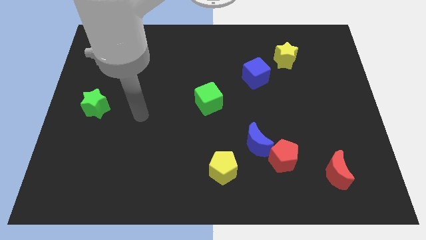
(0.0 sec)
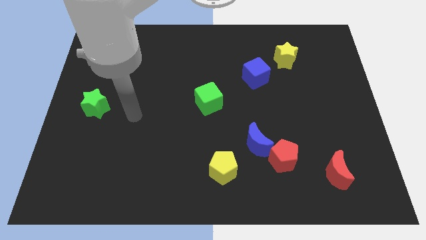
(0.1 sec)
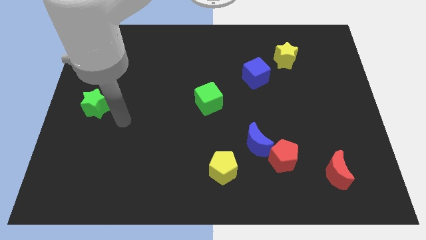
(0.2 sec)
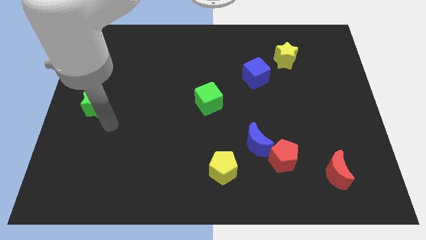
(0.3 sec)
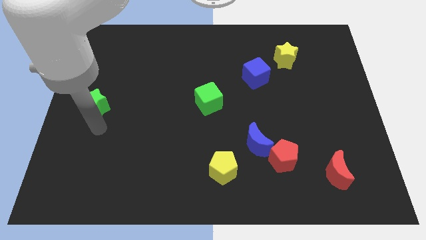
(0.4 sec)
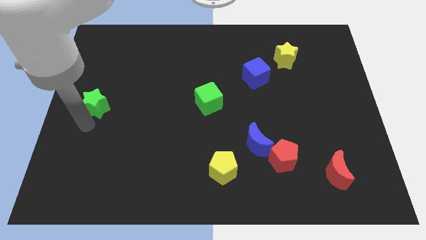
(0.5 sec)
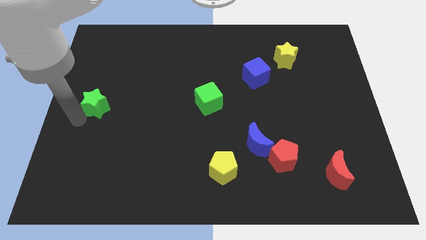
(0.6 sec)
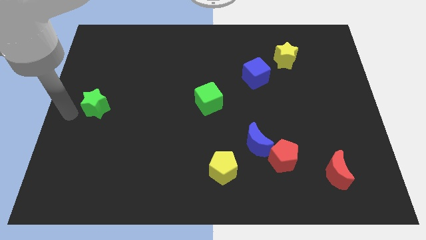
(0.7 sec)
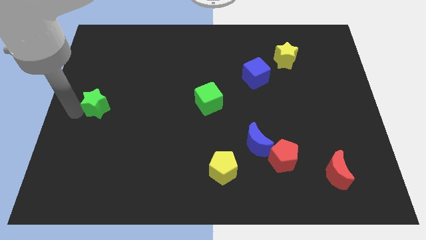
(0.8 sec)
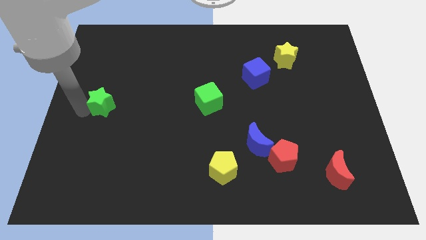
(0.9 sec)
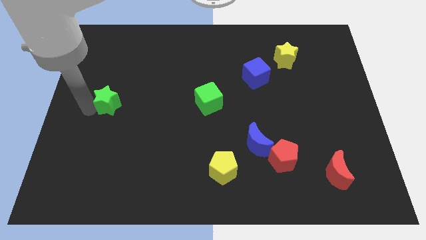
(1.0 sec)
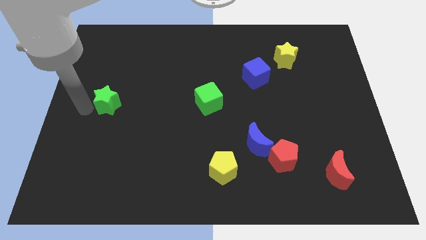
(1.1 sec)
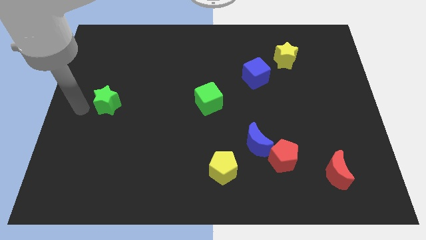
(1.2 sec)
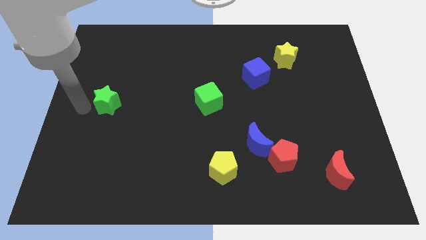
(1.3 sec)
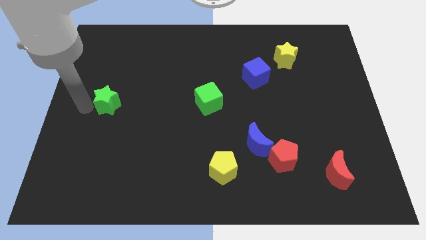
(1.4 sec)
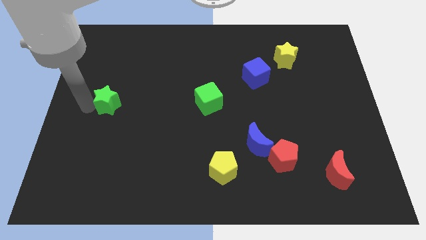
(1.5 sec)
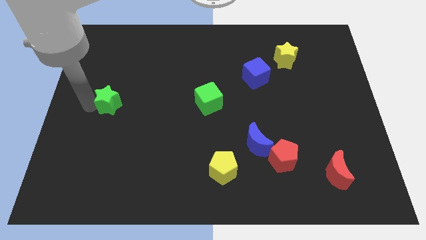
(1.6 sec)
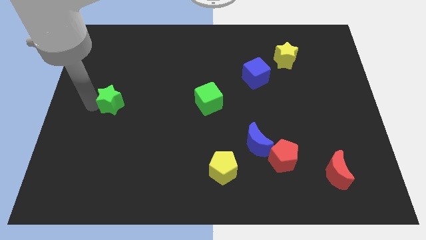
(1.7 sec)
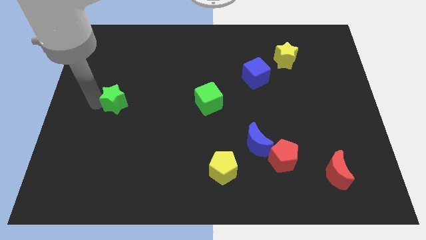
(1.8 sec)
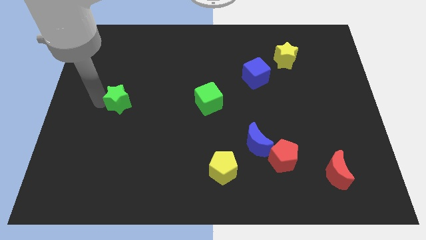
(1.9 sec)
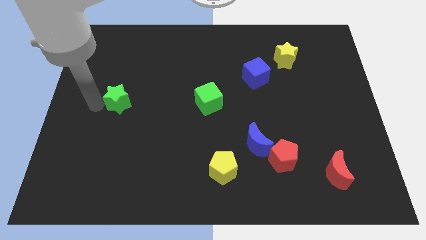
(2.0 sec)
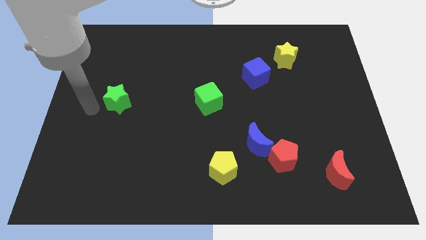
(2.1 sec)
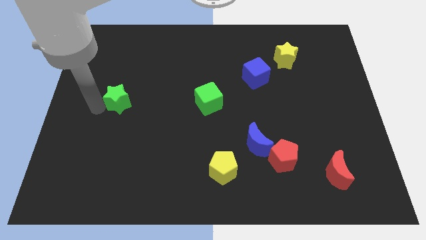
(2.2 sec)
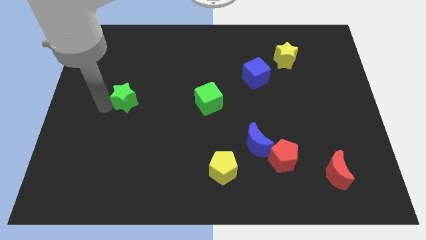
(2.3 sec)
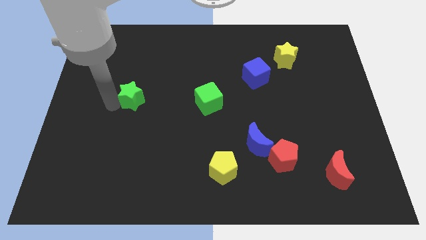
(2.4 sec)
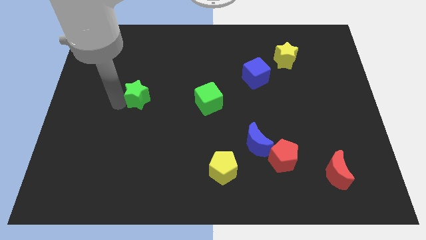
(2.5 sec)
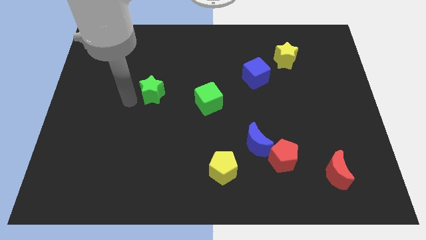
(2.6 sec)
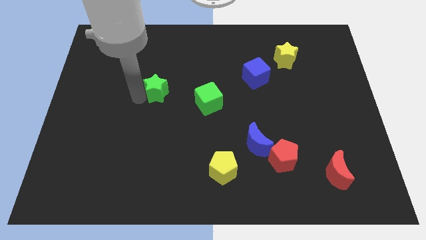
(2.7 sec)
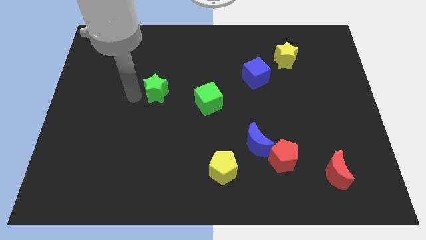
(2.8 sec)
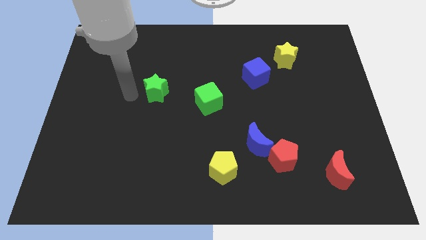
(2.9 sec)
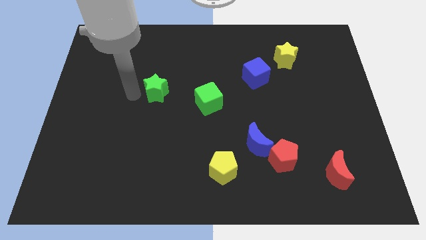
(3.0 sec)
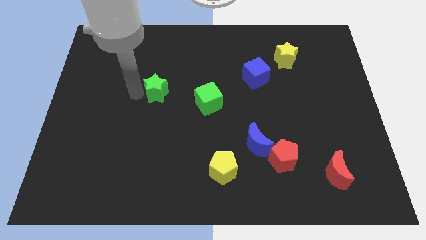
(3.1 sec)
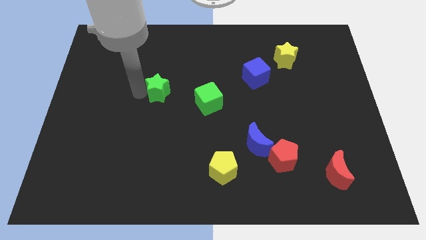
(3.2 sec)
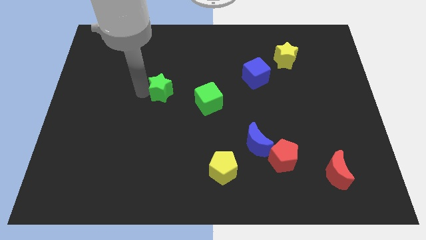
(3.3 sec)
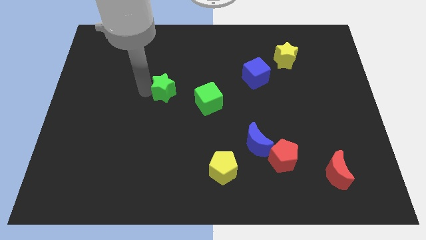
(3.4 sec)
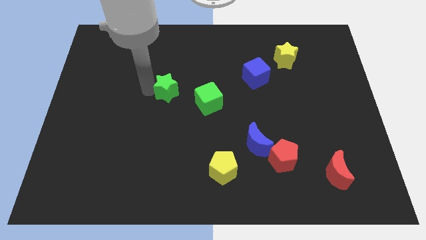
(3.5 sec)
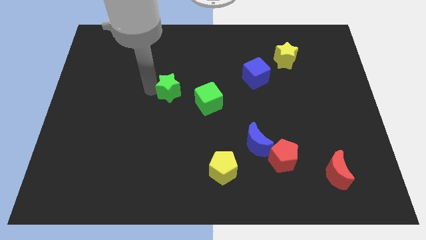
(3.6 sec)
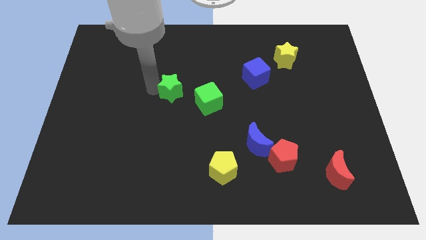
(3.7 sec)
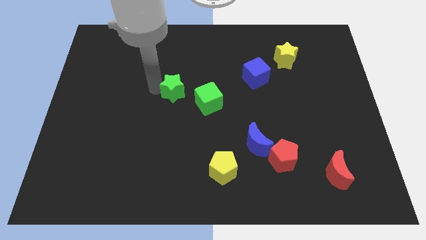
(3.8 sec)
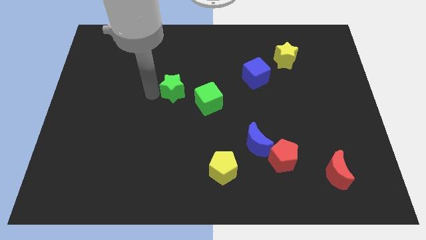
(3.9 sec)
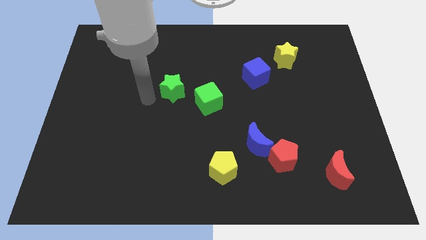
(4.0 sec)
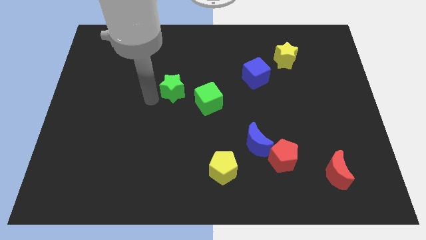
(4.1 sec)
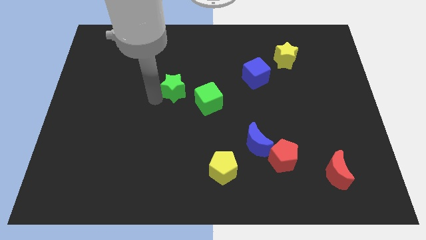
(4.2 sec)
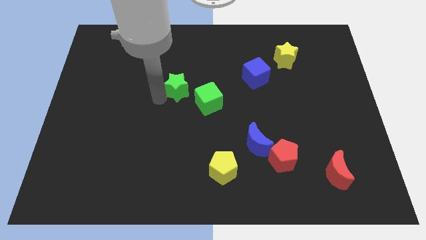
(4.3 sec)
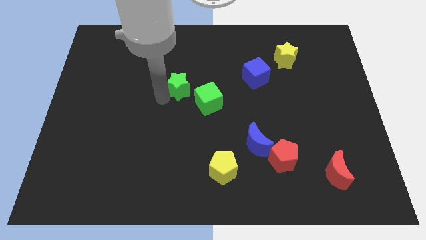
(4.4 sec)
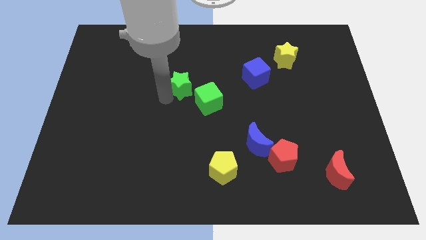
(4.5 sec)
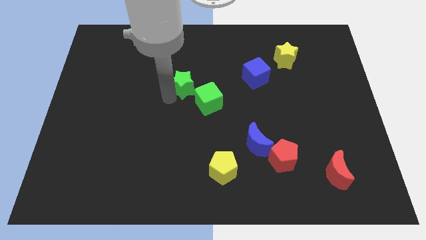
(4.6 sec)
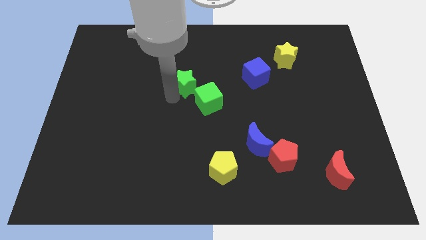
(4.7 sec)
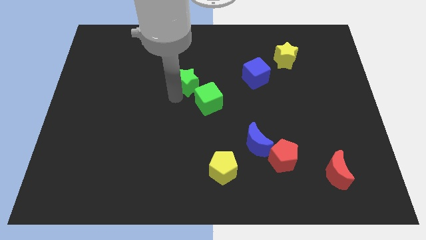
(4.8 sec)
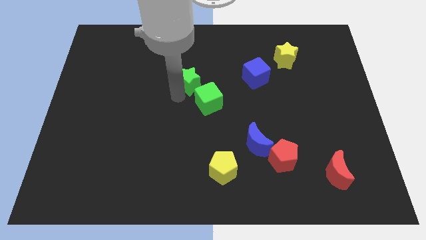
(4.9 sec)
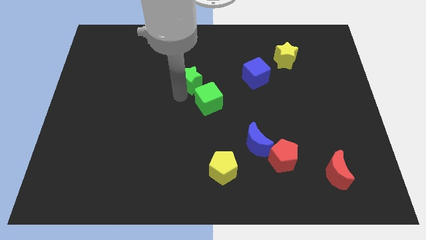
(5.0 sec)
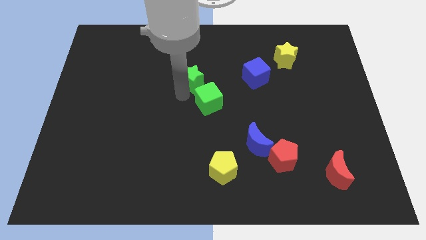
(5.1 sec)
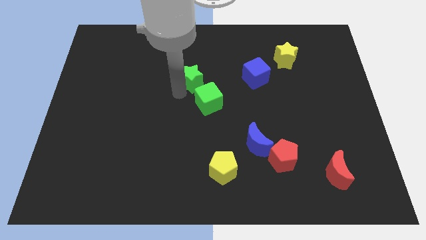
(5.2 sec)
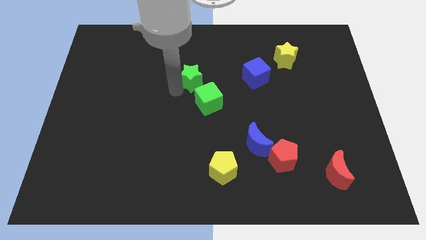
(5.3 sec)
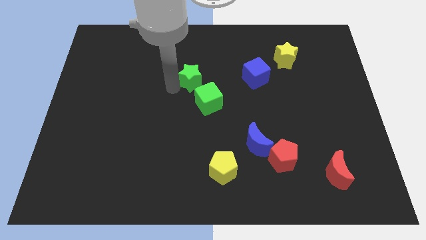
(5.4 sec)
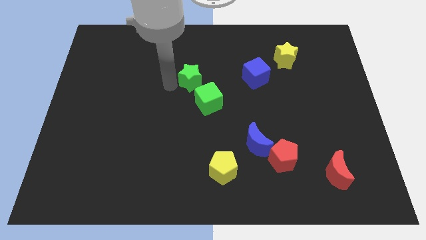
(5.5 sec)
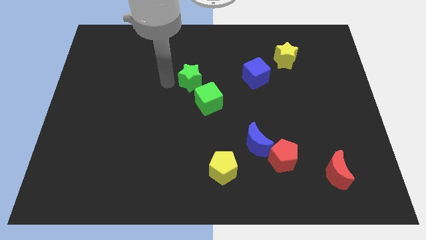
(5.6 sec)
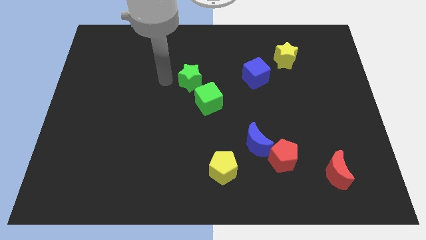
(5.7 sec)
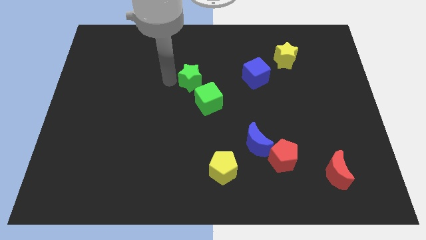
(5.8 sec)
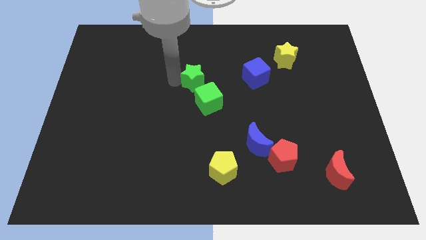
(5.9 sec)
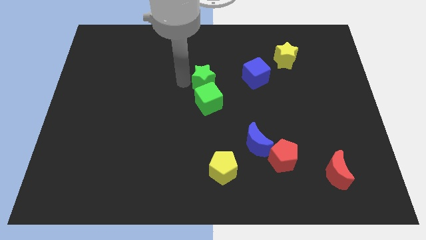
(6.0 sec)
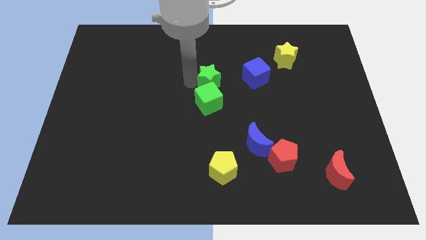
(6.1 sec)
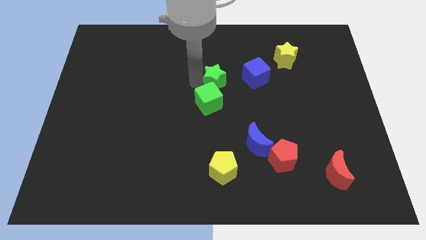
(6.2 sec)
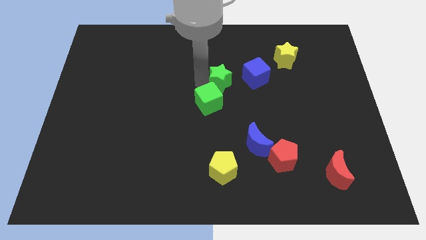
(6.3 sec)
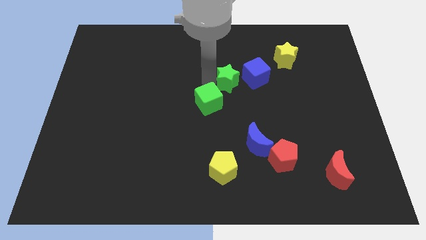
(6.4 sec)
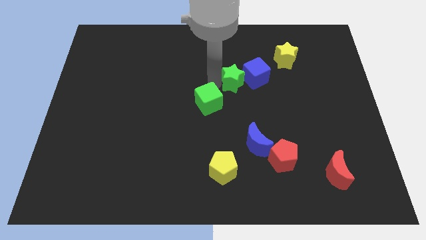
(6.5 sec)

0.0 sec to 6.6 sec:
push the green star close to the blue cube
